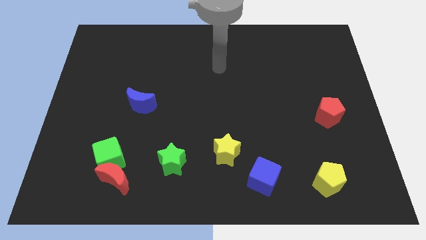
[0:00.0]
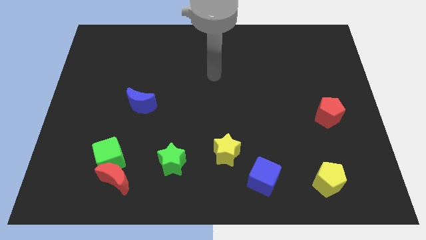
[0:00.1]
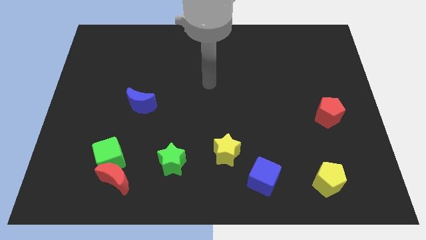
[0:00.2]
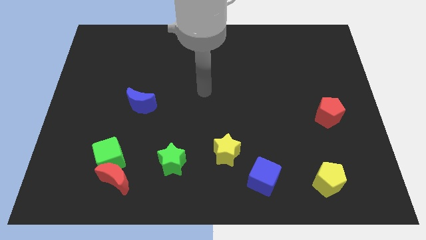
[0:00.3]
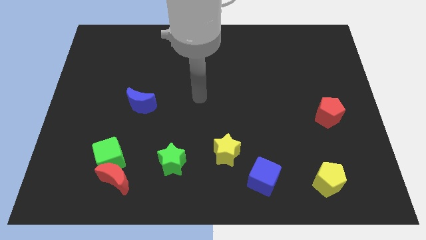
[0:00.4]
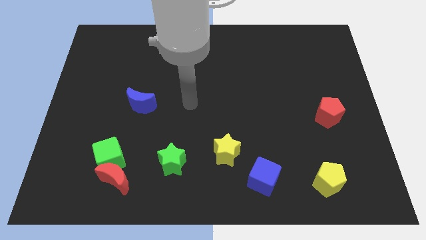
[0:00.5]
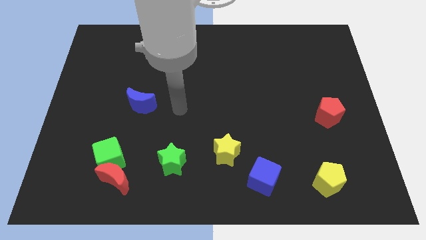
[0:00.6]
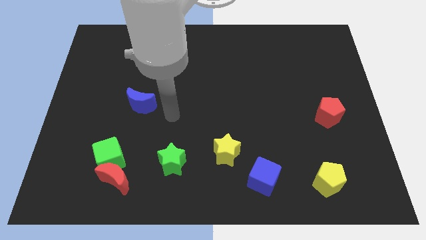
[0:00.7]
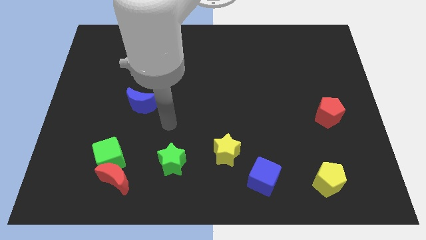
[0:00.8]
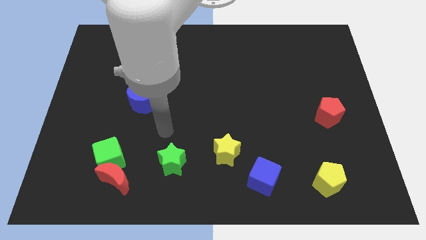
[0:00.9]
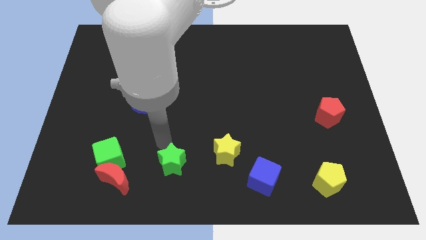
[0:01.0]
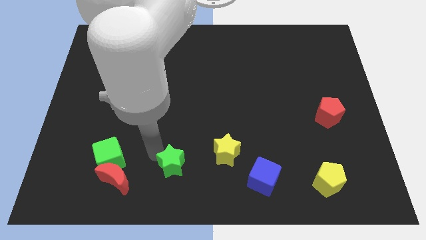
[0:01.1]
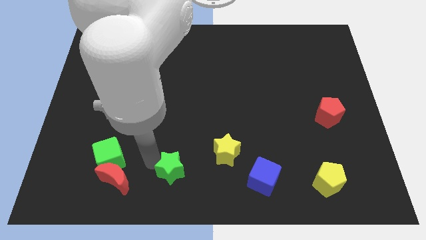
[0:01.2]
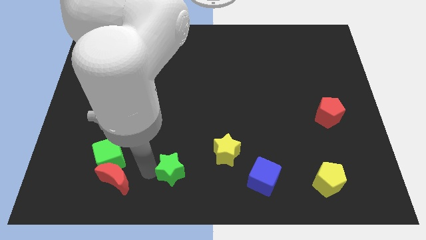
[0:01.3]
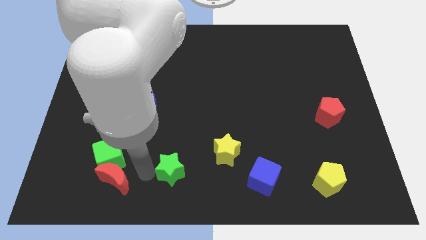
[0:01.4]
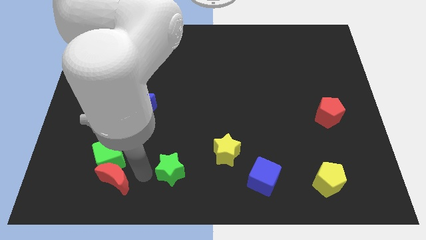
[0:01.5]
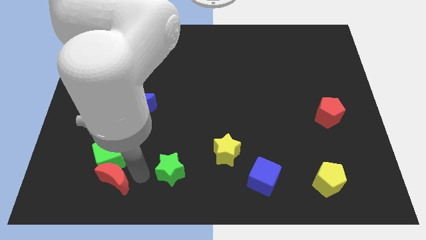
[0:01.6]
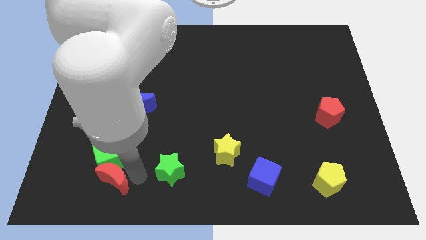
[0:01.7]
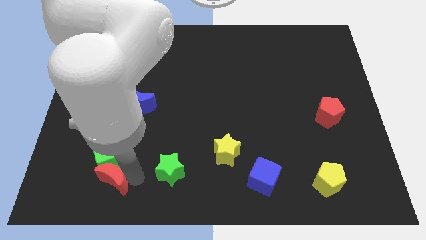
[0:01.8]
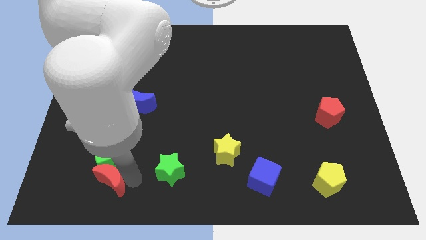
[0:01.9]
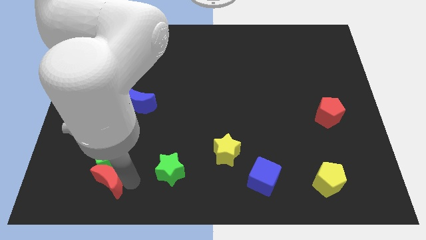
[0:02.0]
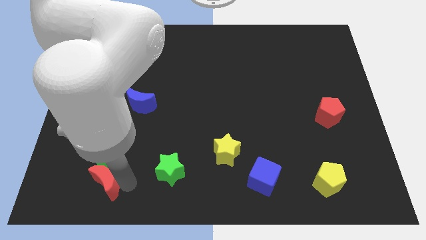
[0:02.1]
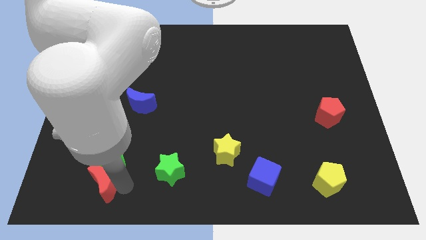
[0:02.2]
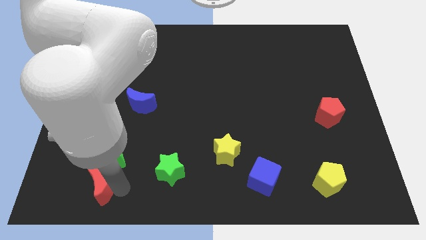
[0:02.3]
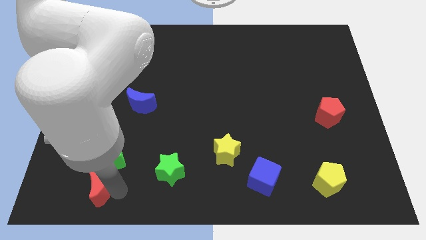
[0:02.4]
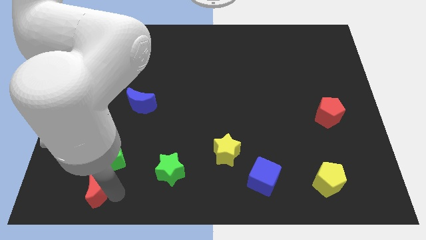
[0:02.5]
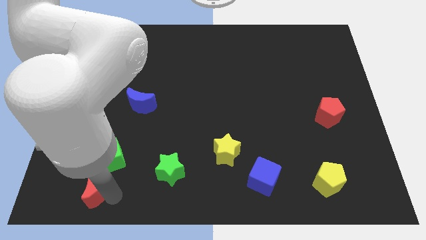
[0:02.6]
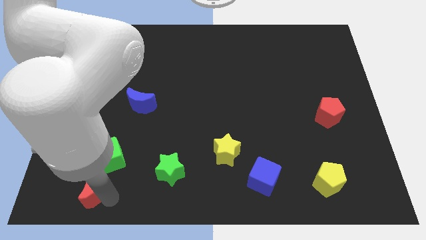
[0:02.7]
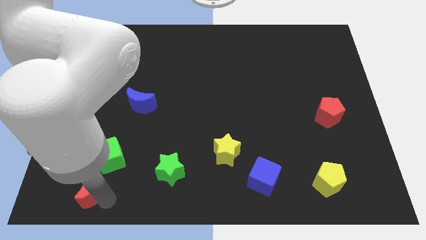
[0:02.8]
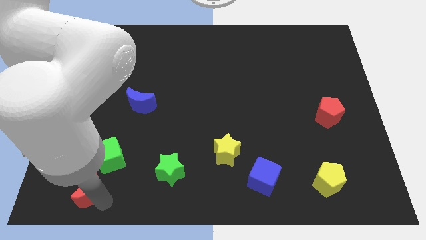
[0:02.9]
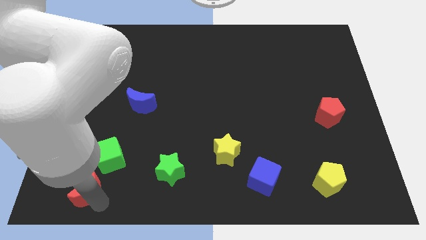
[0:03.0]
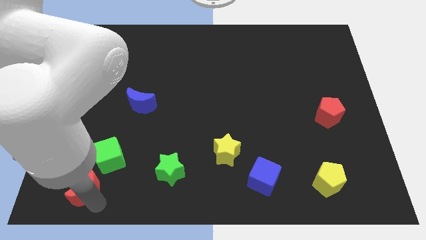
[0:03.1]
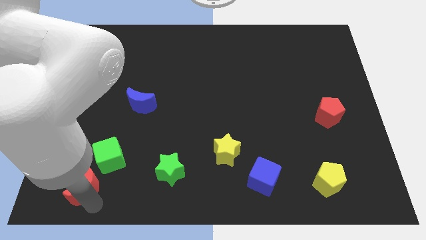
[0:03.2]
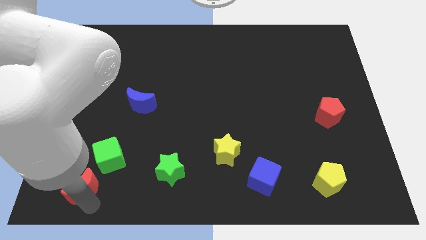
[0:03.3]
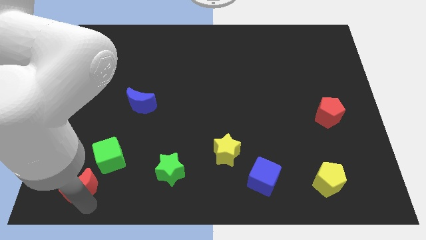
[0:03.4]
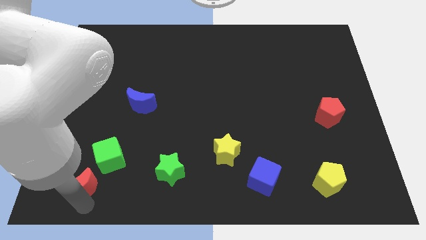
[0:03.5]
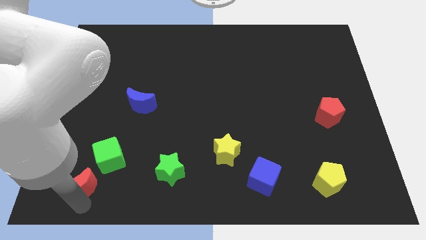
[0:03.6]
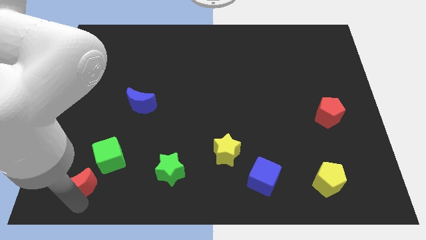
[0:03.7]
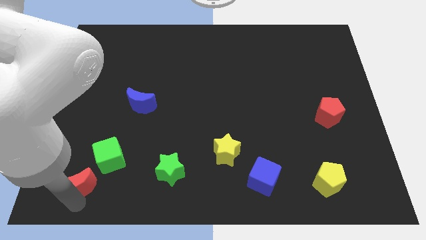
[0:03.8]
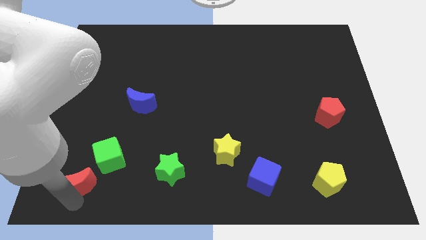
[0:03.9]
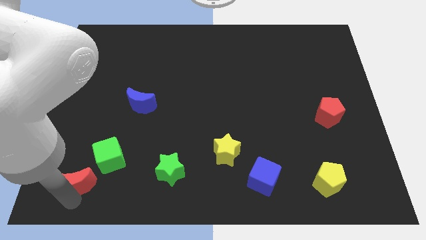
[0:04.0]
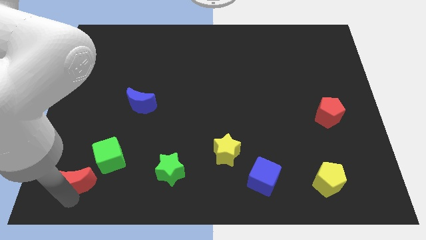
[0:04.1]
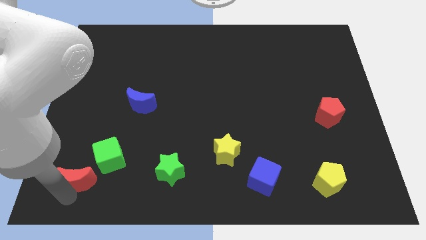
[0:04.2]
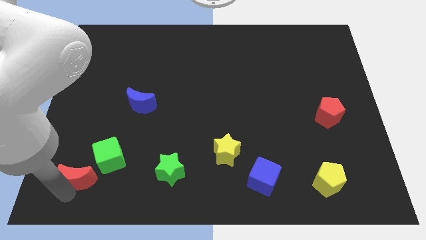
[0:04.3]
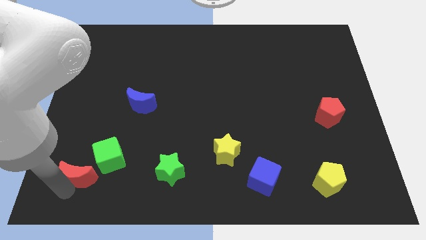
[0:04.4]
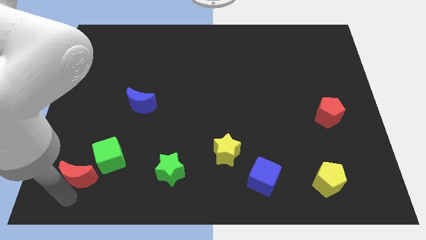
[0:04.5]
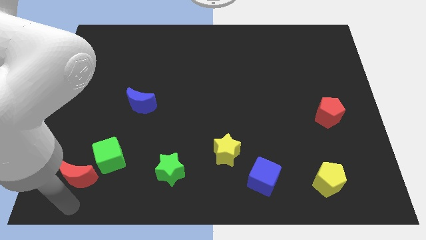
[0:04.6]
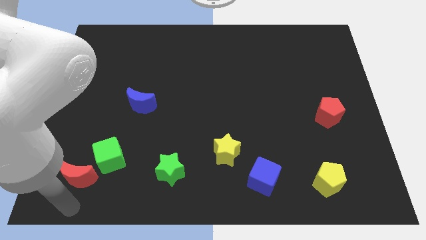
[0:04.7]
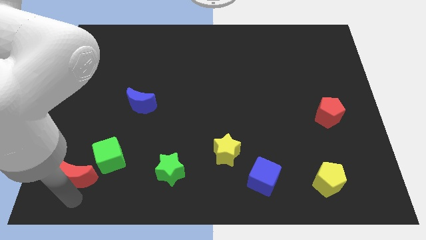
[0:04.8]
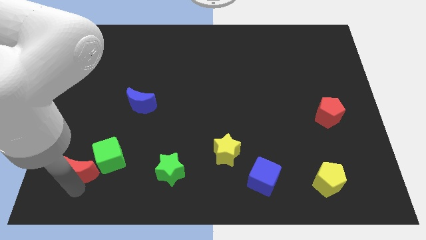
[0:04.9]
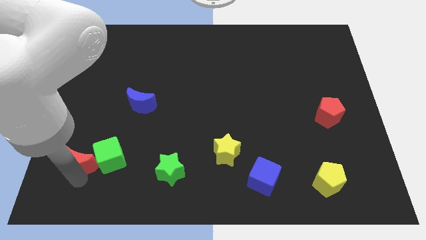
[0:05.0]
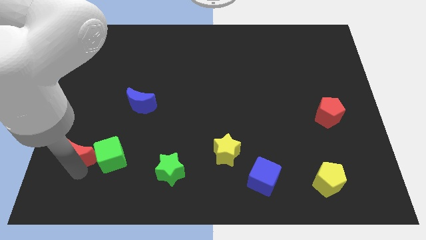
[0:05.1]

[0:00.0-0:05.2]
slide the red moon to the top left of the green cube

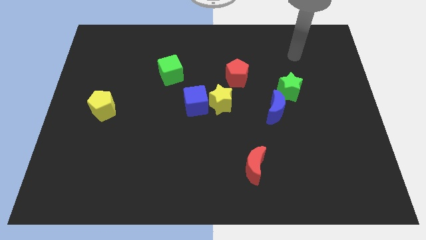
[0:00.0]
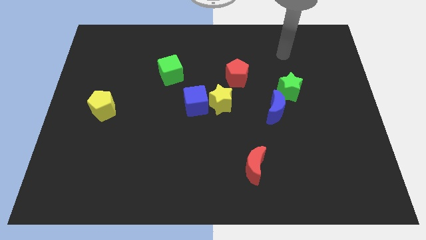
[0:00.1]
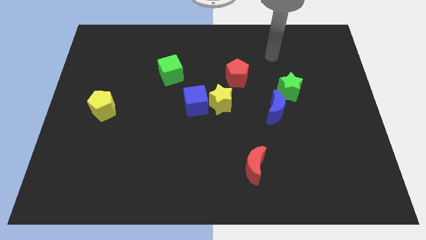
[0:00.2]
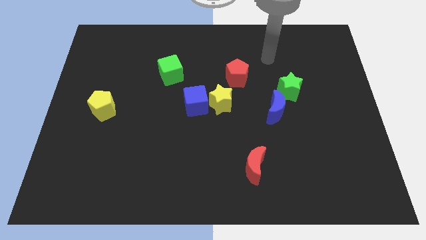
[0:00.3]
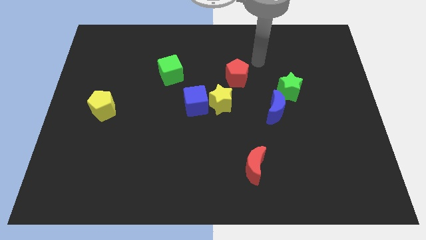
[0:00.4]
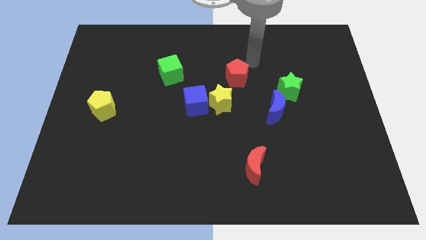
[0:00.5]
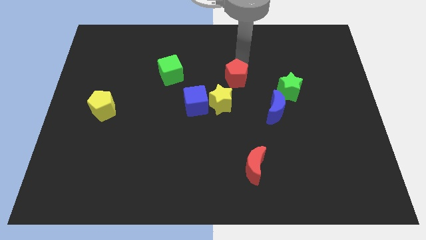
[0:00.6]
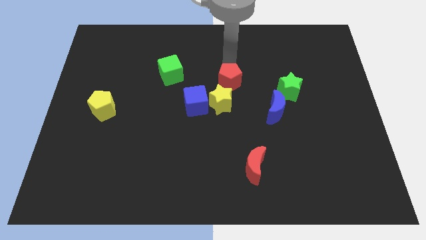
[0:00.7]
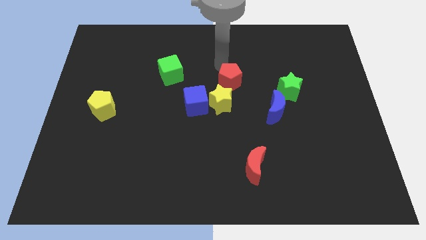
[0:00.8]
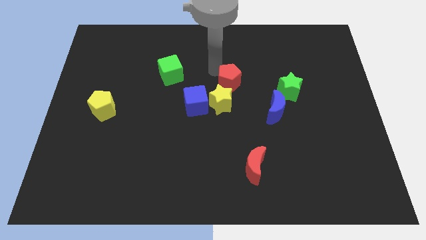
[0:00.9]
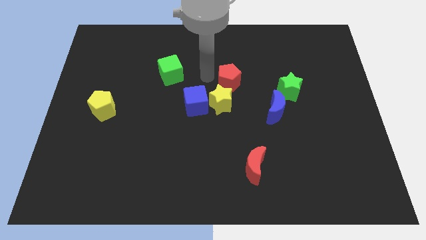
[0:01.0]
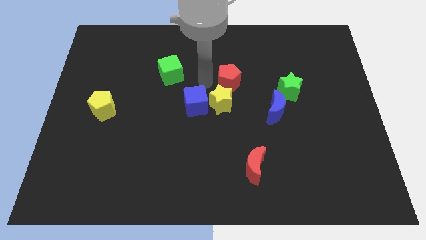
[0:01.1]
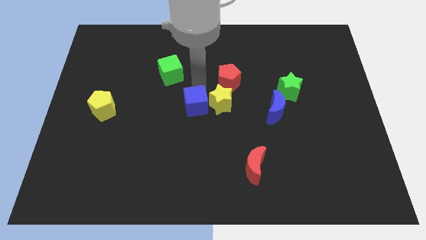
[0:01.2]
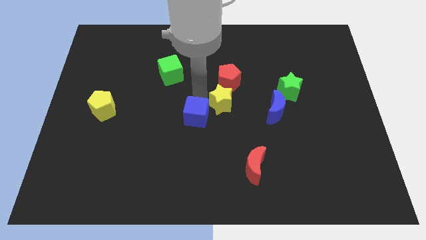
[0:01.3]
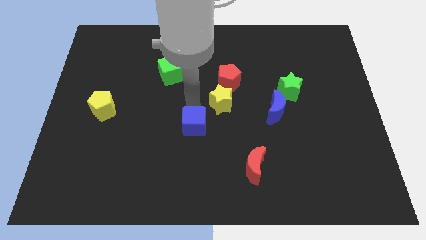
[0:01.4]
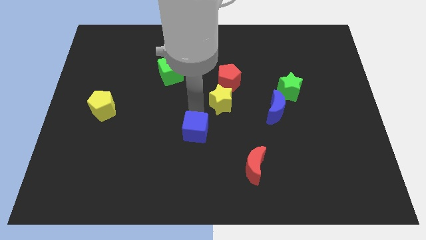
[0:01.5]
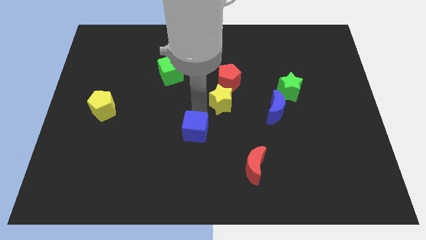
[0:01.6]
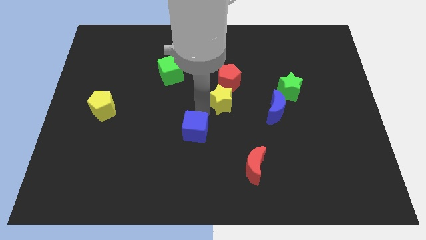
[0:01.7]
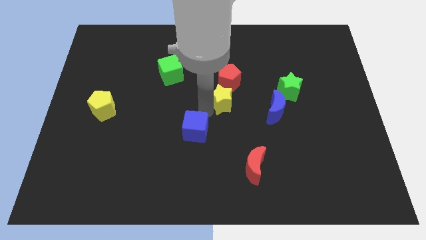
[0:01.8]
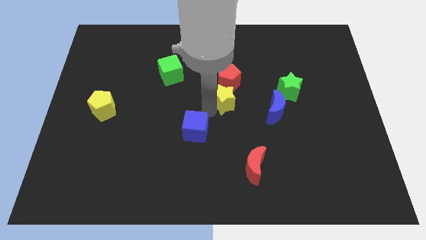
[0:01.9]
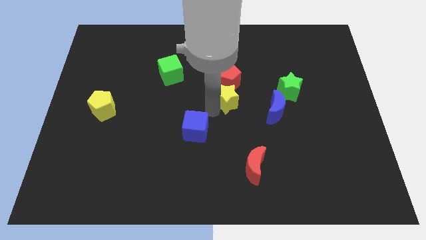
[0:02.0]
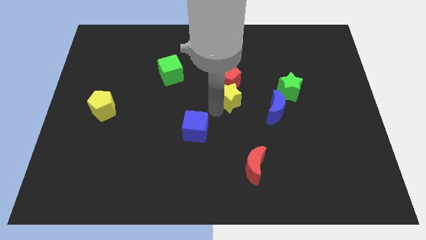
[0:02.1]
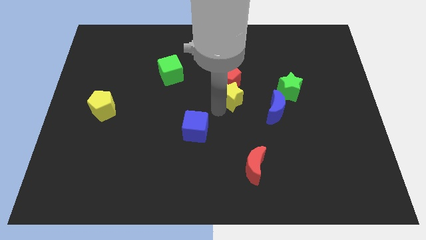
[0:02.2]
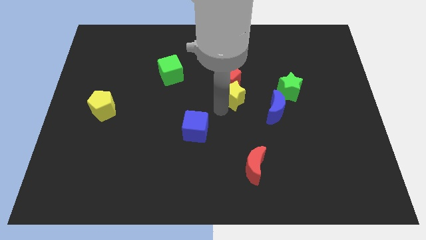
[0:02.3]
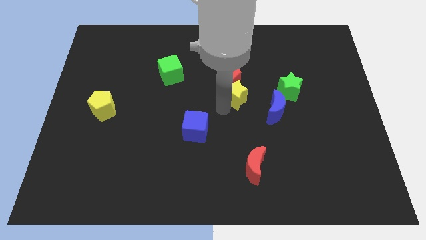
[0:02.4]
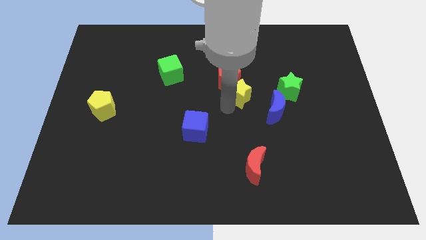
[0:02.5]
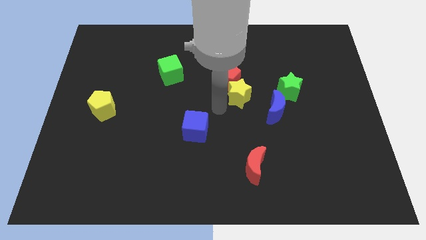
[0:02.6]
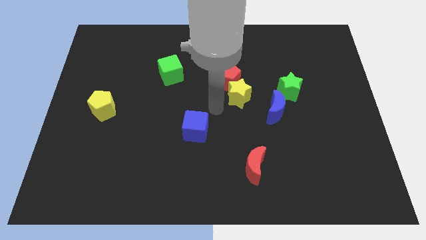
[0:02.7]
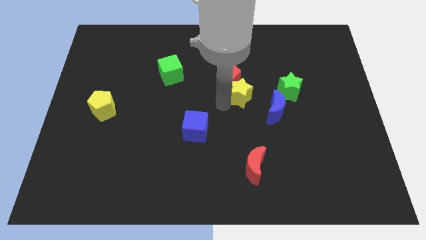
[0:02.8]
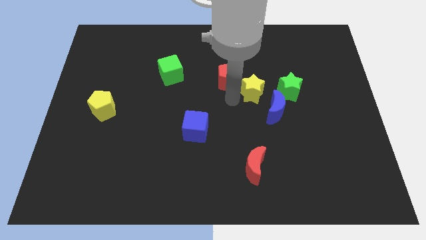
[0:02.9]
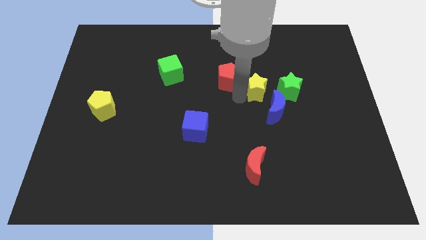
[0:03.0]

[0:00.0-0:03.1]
move the yellow star to the top of the blue moon

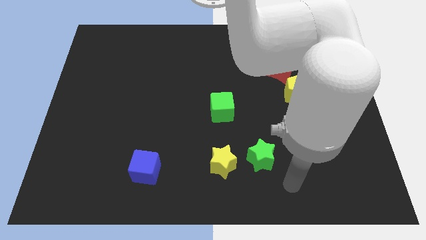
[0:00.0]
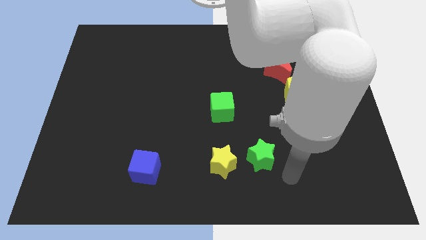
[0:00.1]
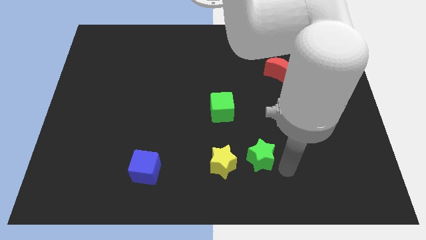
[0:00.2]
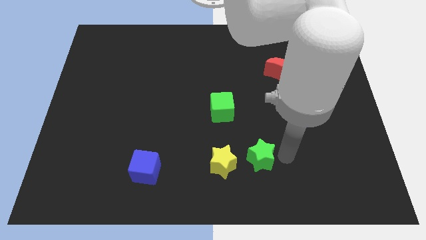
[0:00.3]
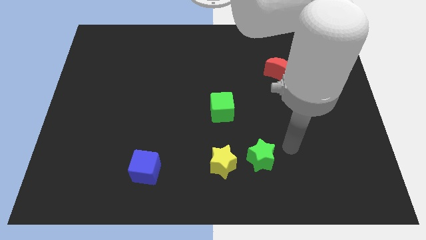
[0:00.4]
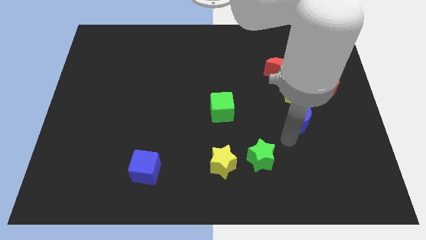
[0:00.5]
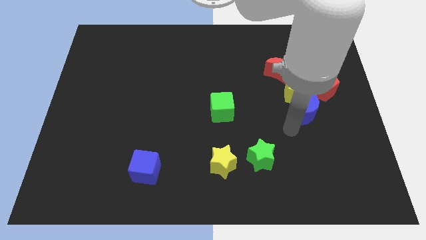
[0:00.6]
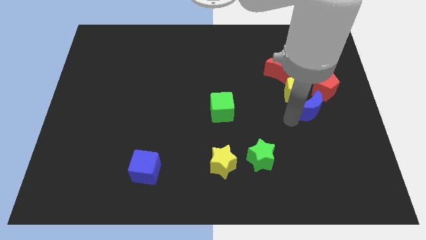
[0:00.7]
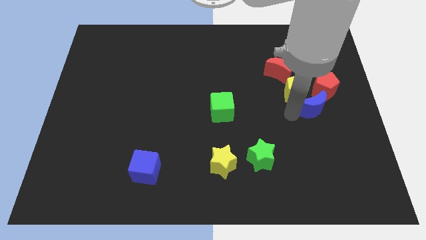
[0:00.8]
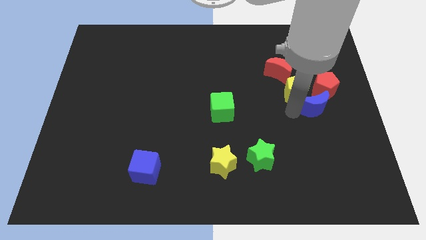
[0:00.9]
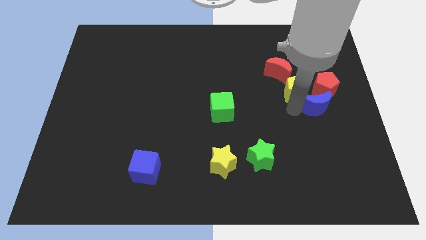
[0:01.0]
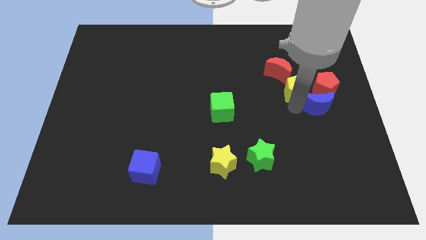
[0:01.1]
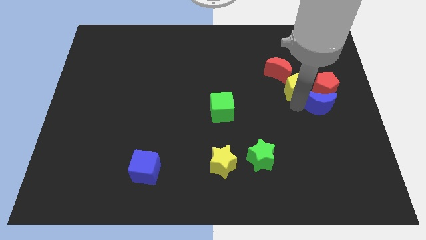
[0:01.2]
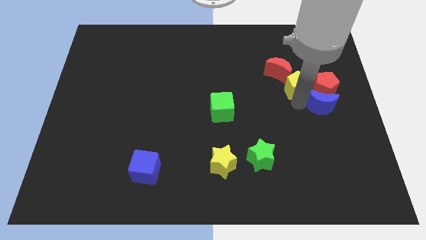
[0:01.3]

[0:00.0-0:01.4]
push the yellow pentagon to the top left side of the red pentagon
